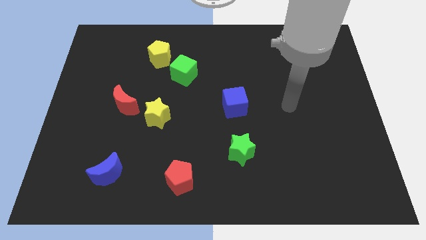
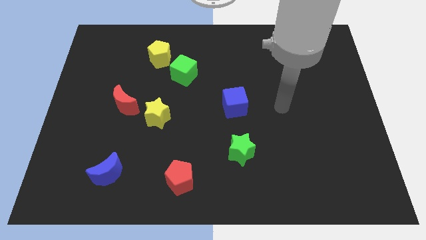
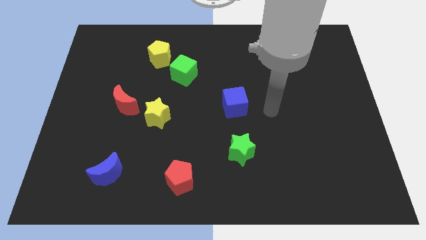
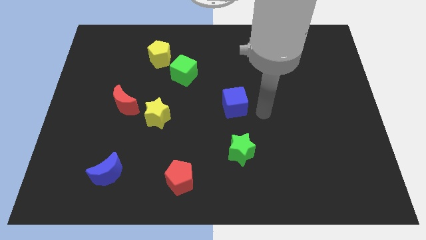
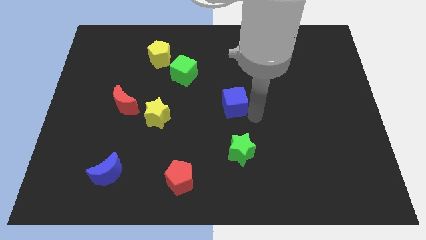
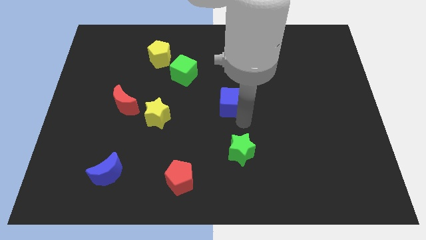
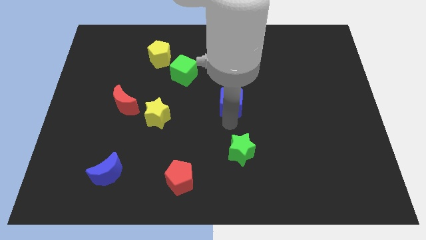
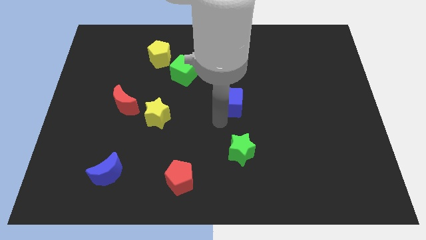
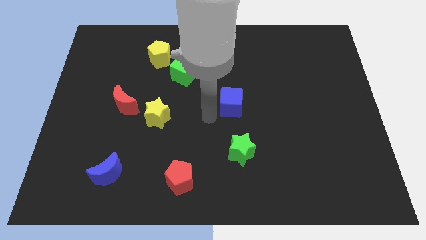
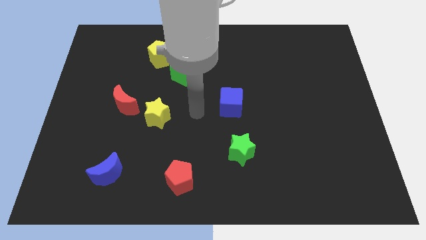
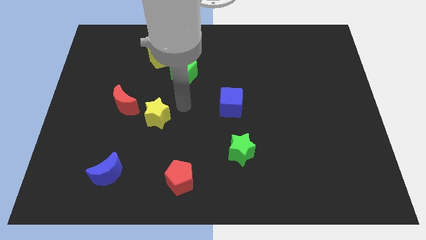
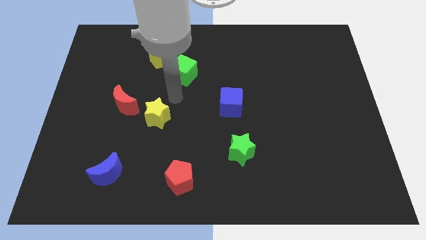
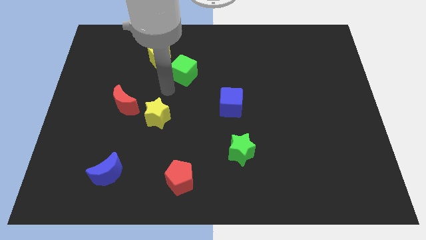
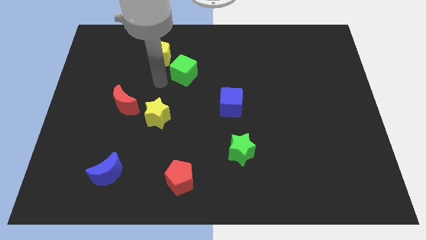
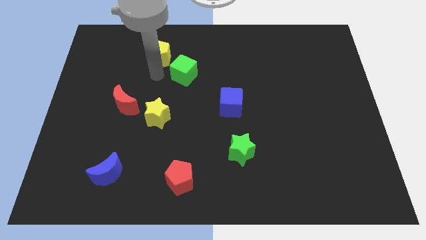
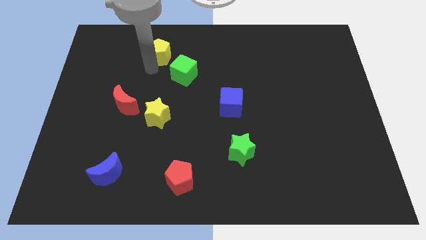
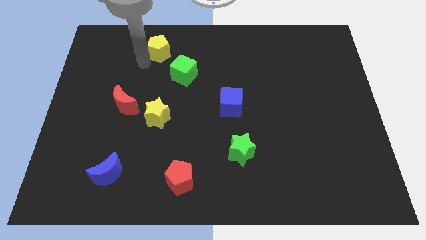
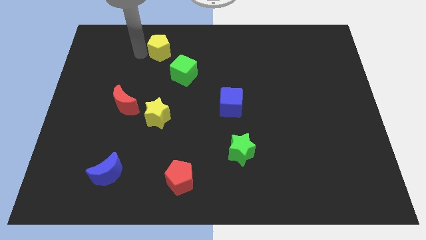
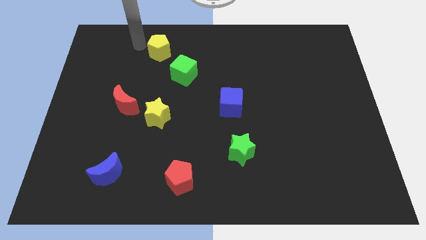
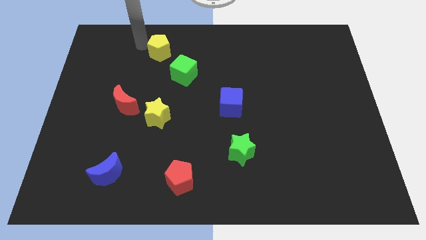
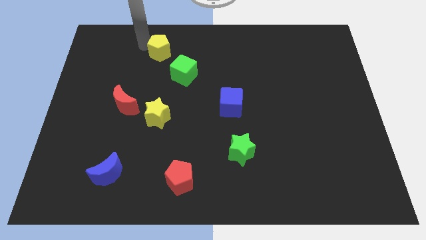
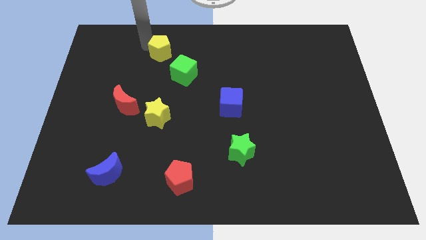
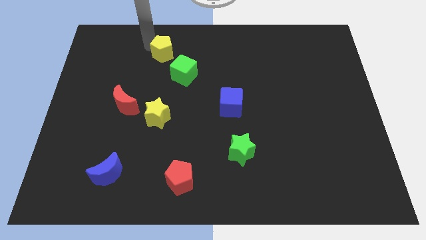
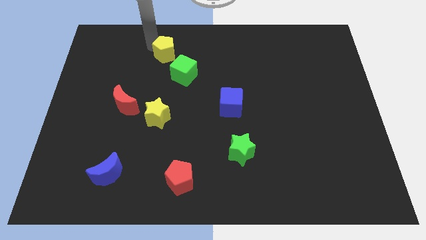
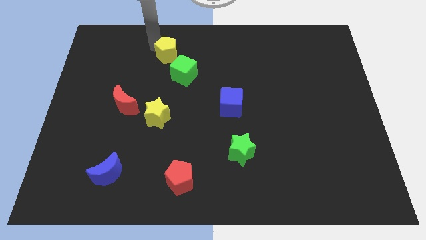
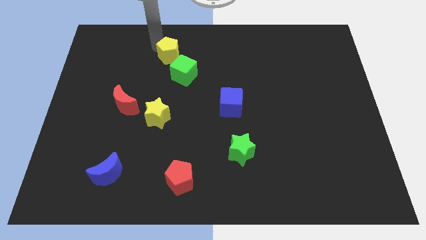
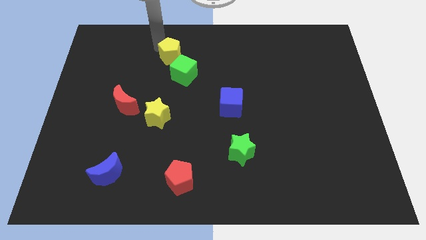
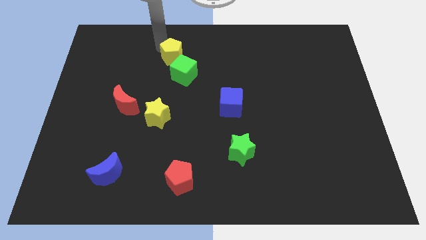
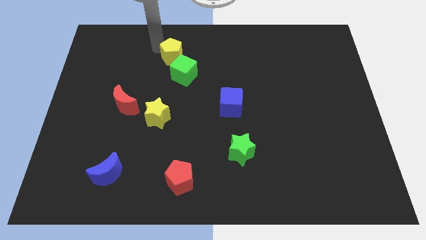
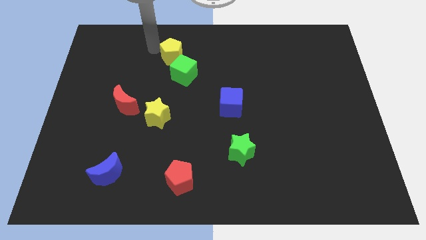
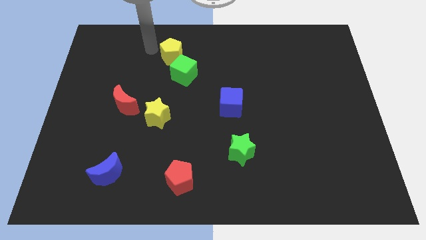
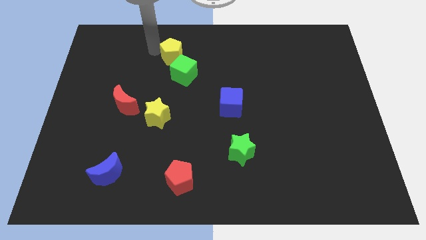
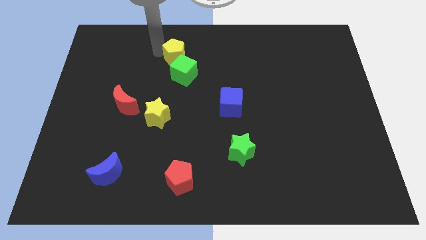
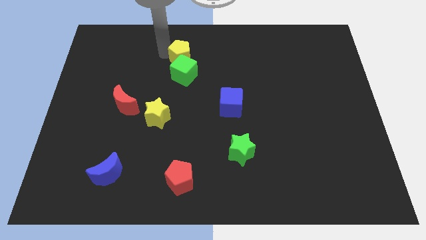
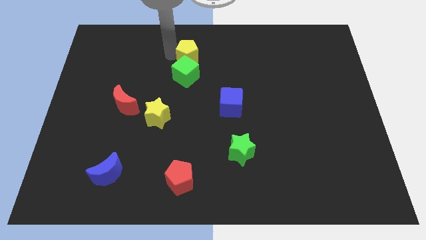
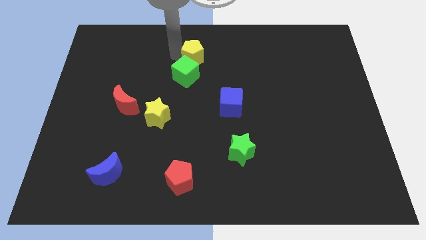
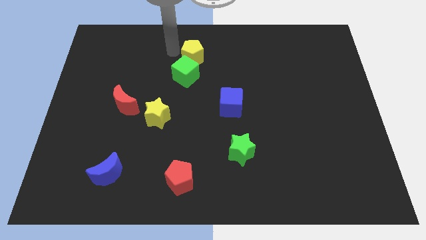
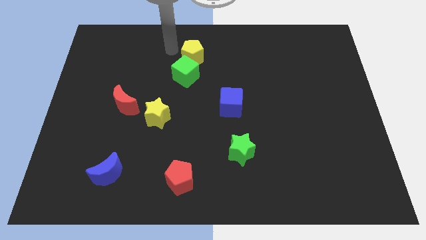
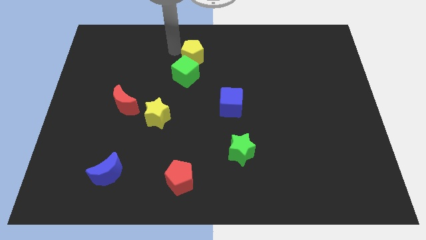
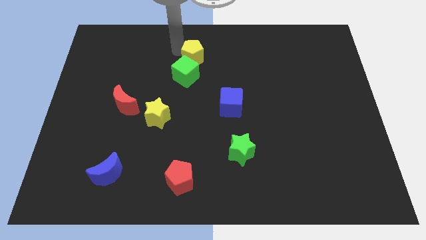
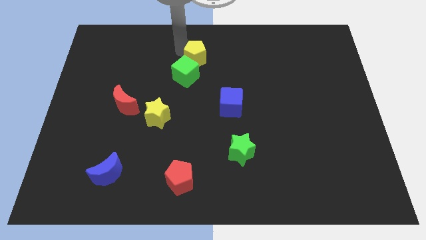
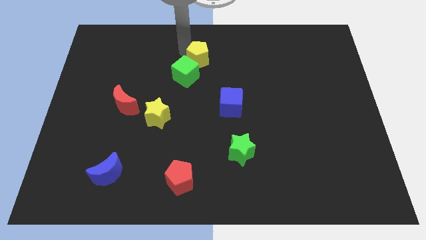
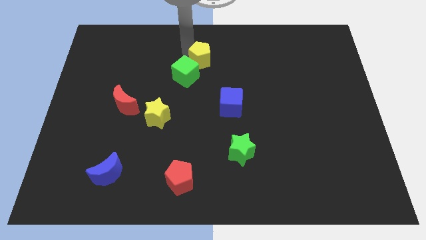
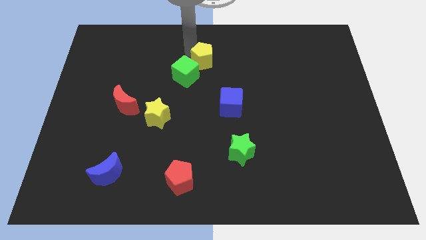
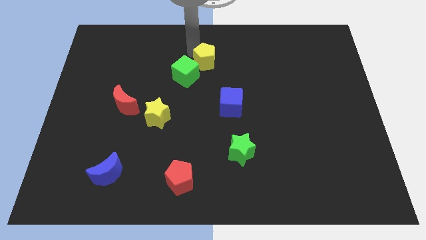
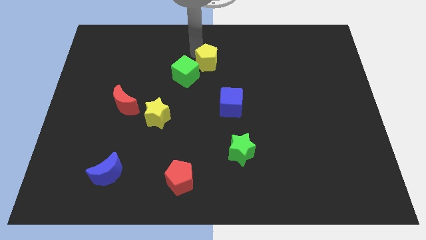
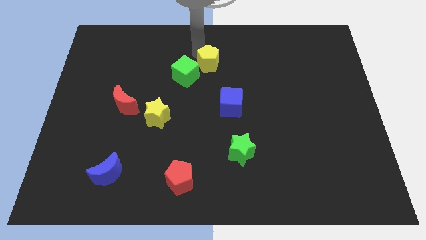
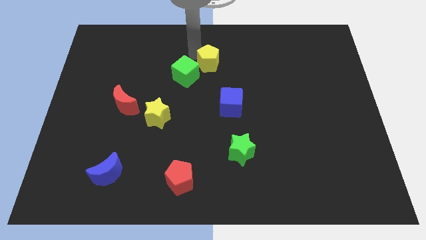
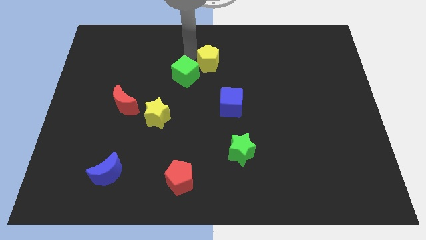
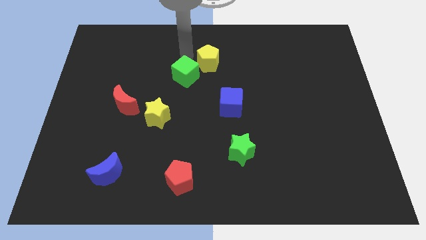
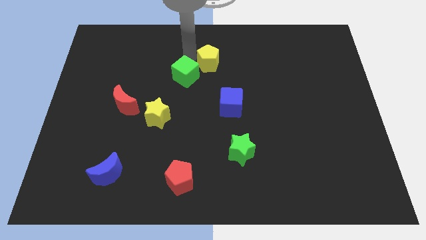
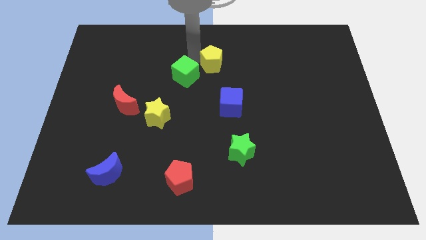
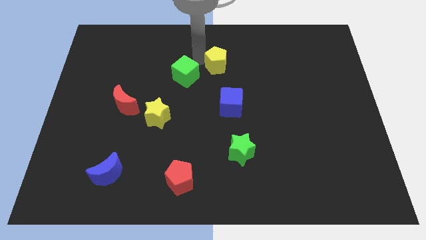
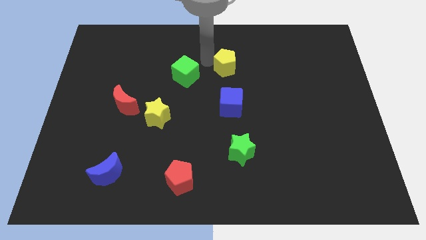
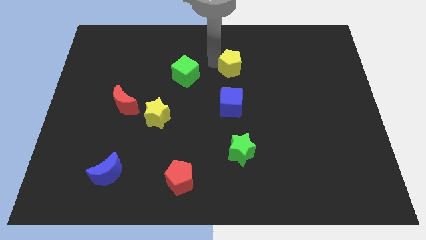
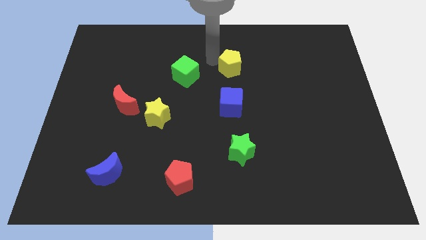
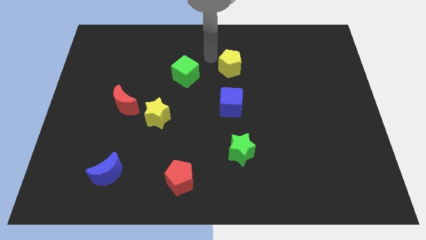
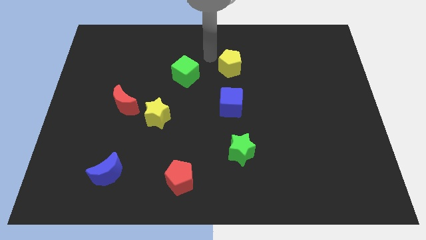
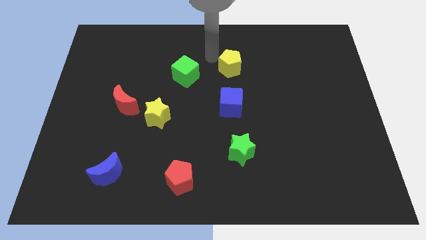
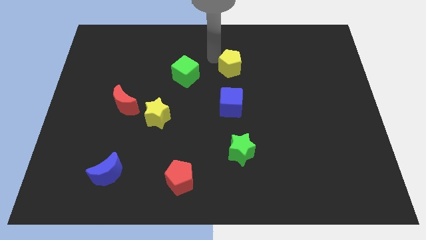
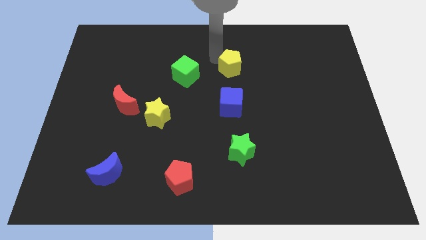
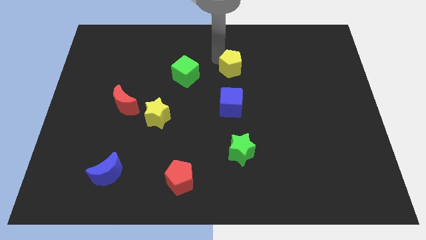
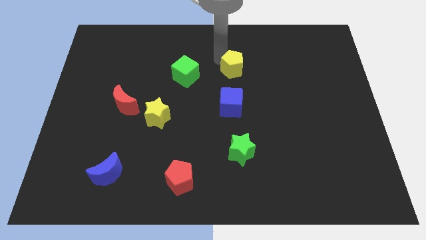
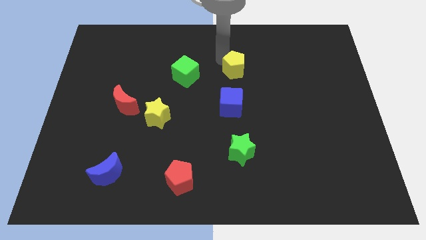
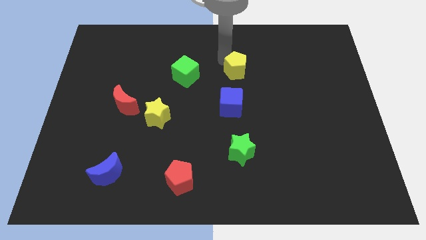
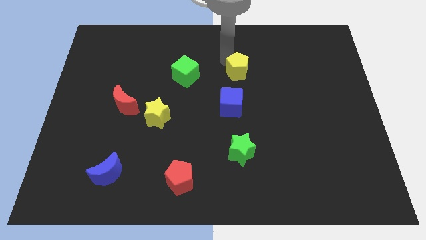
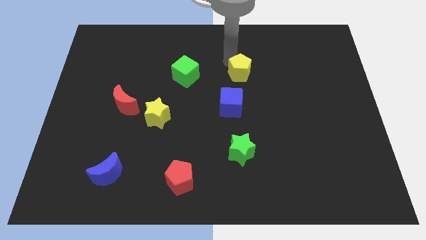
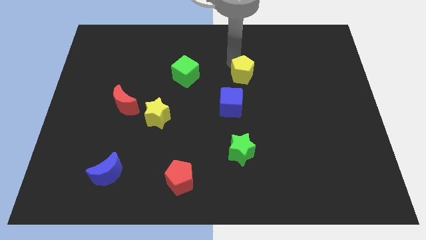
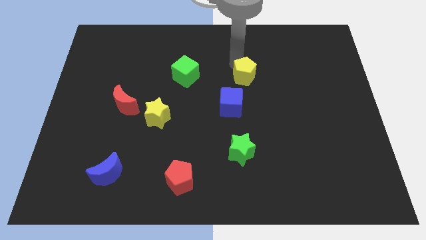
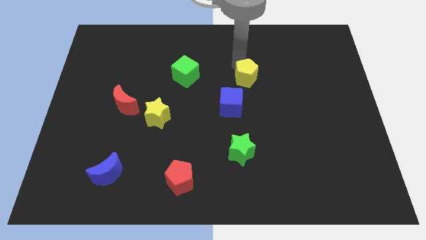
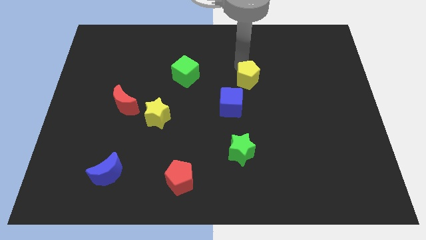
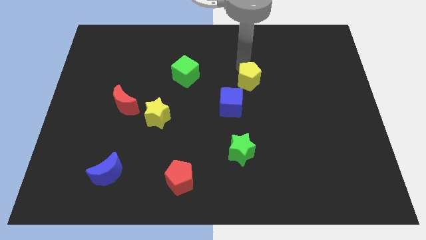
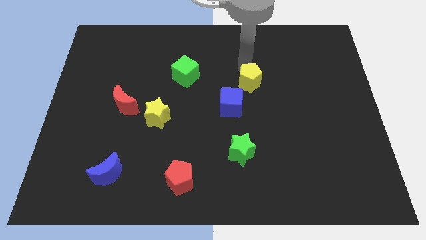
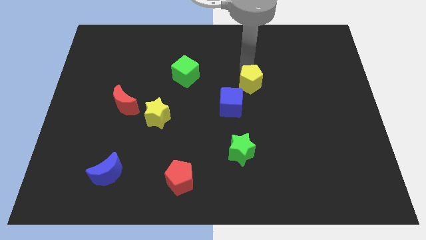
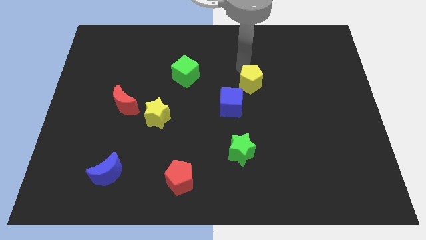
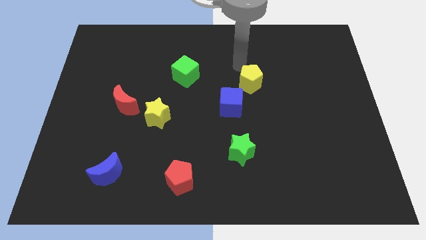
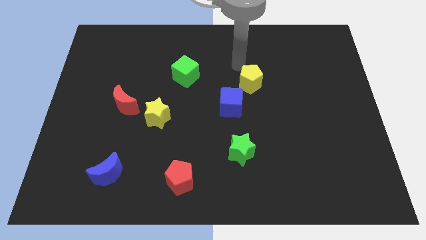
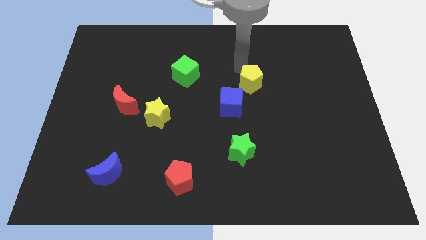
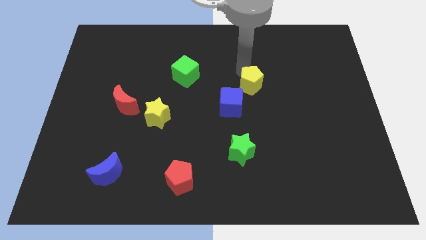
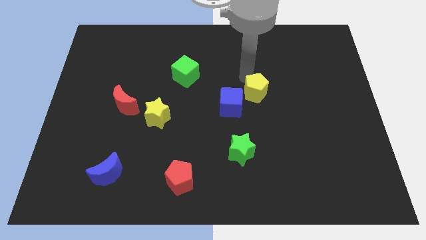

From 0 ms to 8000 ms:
put the yellow pentagon to the right side of the blue cube
